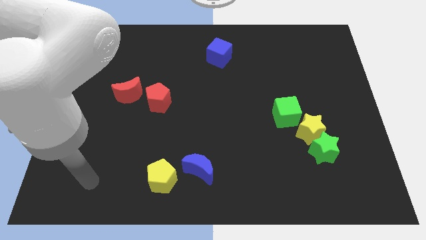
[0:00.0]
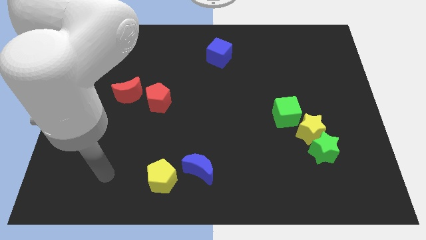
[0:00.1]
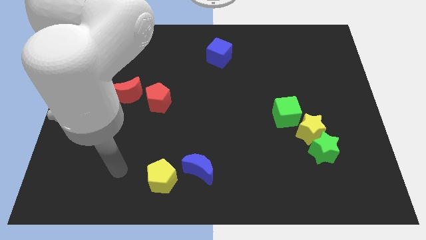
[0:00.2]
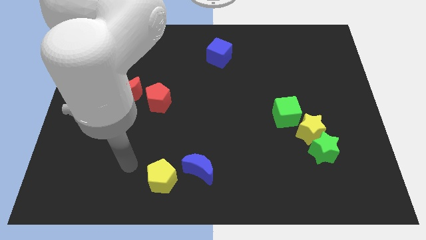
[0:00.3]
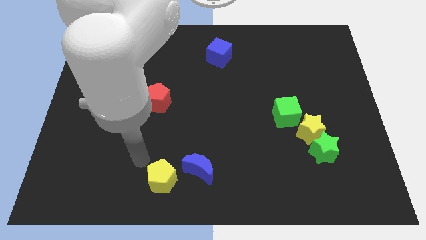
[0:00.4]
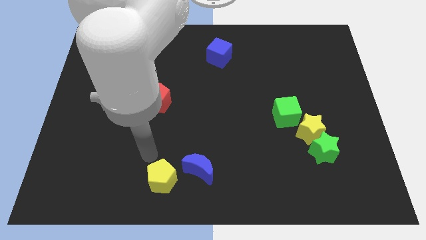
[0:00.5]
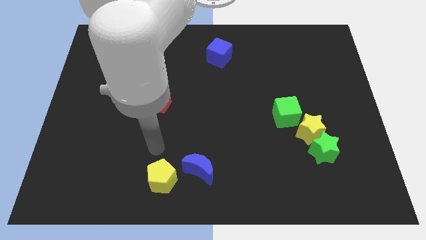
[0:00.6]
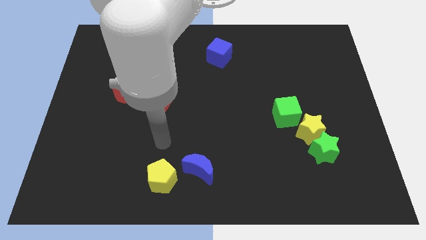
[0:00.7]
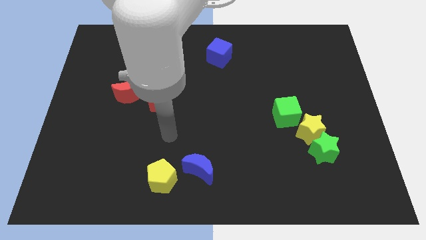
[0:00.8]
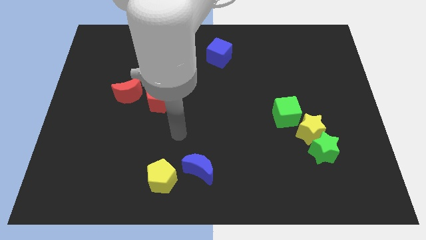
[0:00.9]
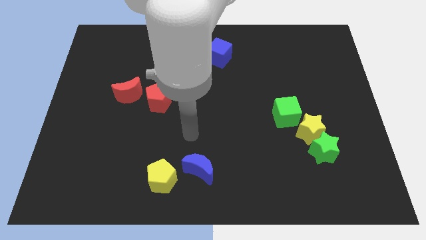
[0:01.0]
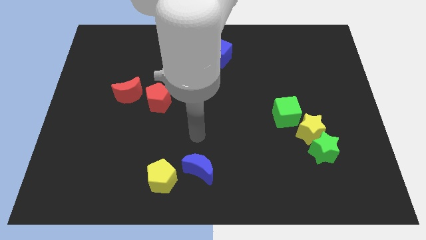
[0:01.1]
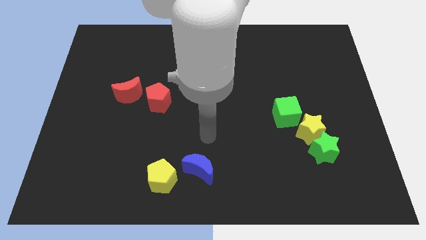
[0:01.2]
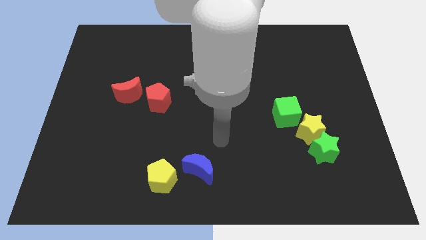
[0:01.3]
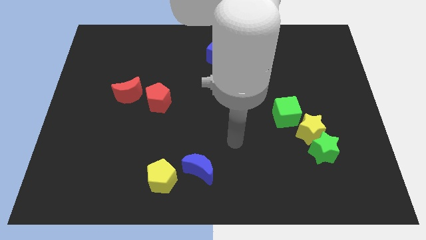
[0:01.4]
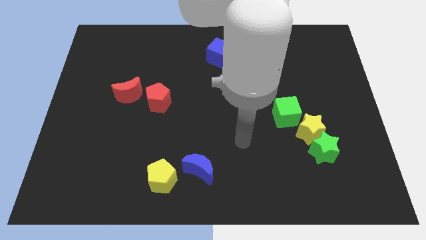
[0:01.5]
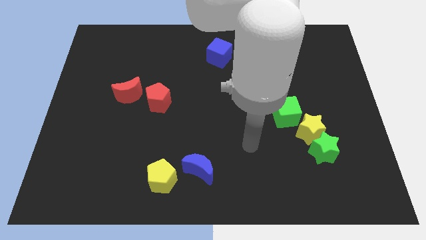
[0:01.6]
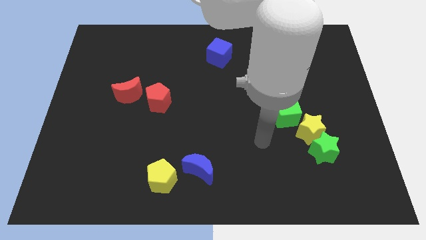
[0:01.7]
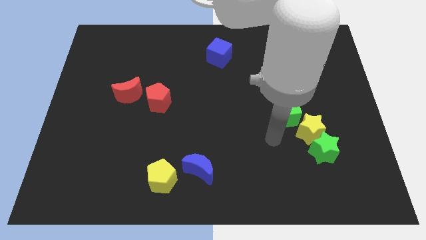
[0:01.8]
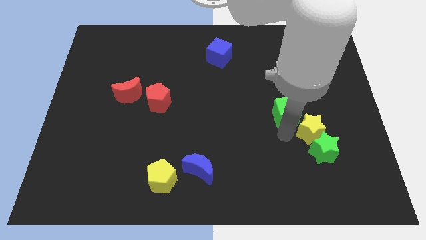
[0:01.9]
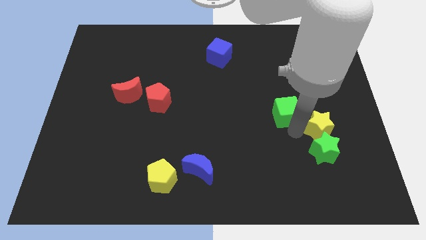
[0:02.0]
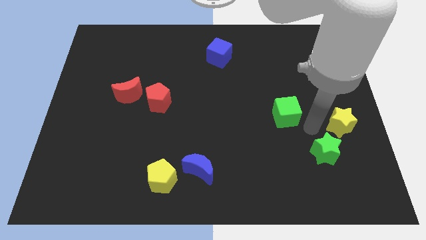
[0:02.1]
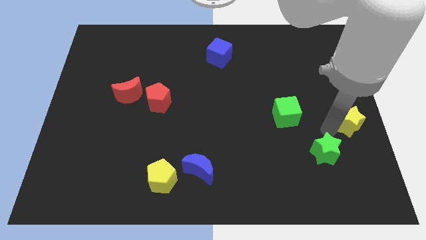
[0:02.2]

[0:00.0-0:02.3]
separate the green star from the yellow star

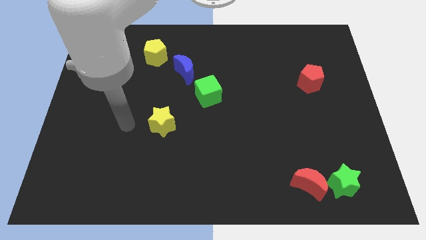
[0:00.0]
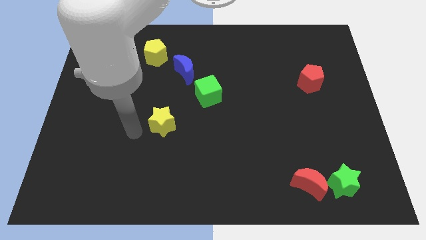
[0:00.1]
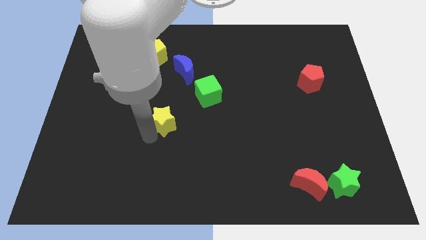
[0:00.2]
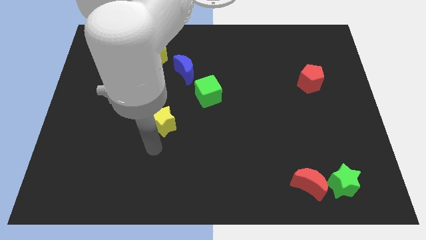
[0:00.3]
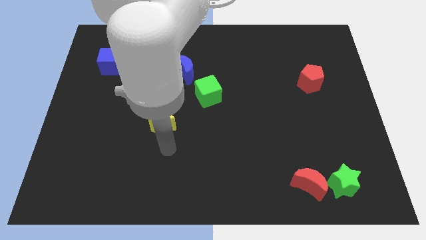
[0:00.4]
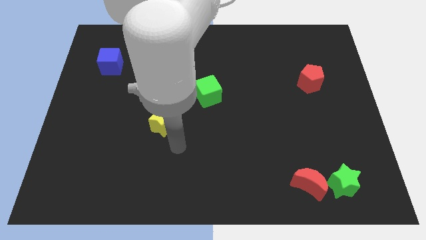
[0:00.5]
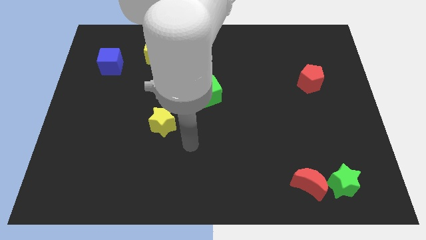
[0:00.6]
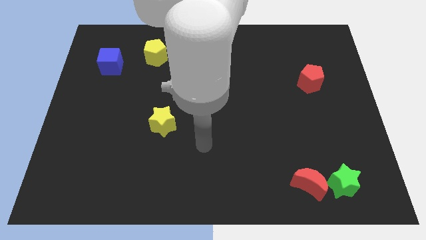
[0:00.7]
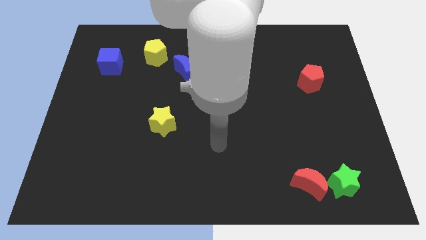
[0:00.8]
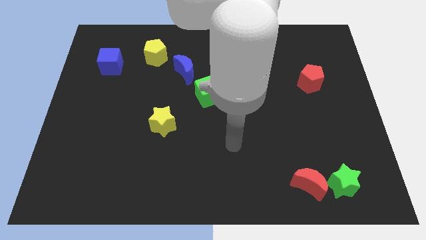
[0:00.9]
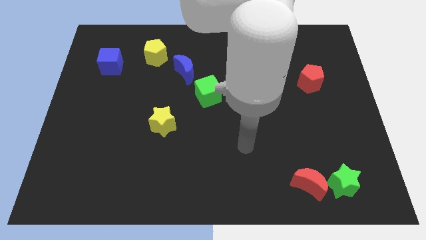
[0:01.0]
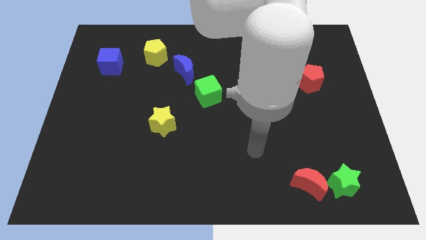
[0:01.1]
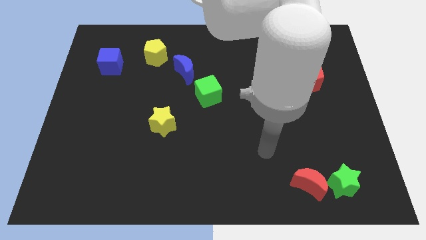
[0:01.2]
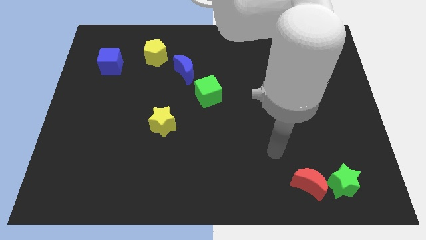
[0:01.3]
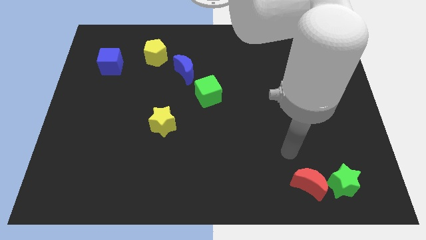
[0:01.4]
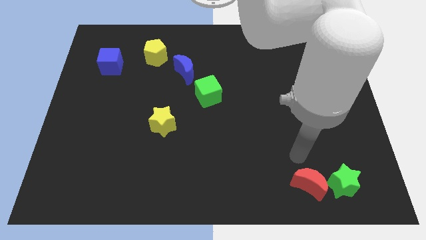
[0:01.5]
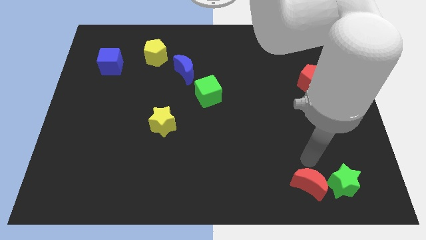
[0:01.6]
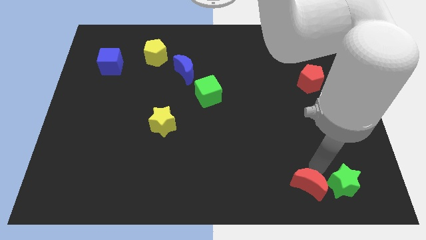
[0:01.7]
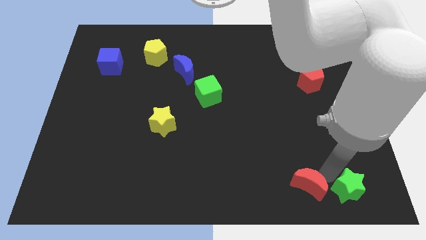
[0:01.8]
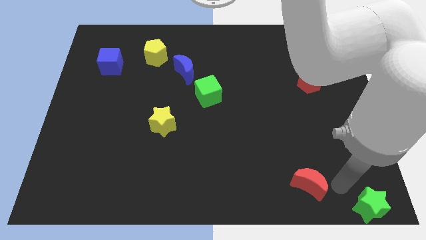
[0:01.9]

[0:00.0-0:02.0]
separate the red moon from the green star

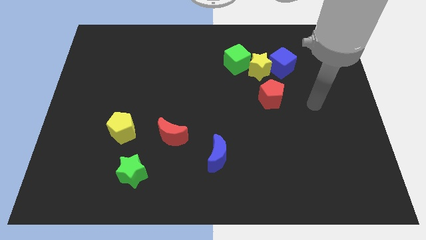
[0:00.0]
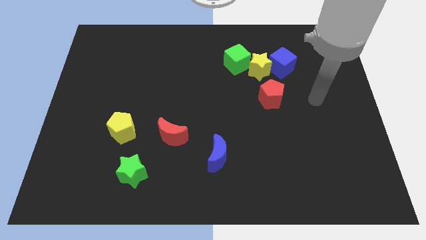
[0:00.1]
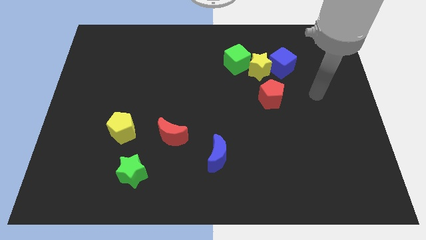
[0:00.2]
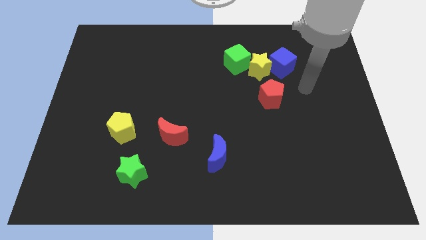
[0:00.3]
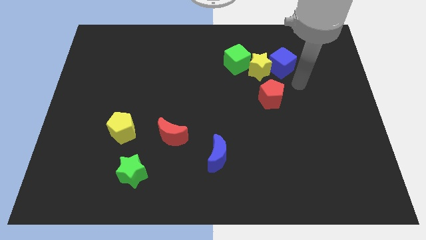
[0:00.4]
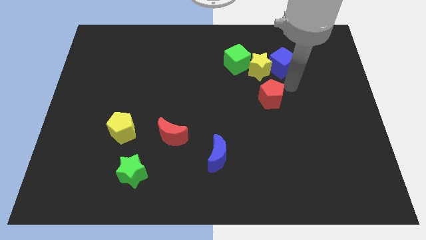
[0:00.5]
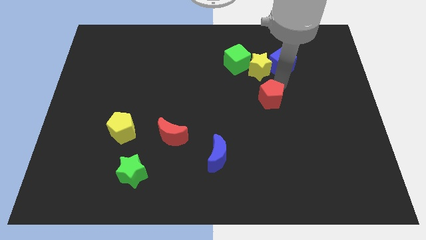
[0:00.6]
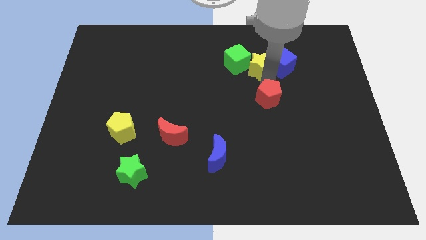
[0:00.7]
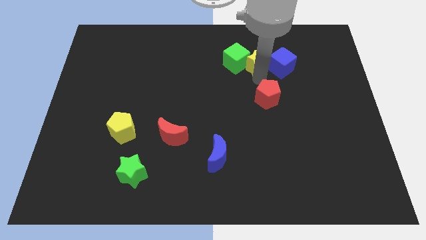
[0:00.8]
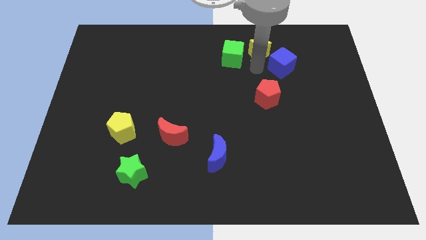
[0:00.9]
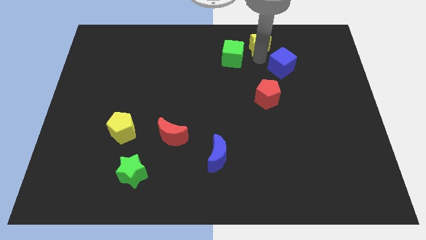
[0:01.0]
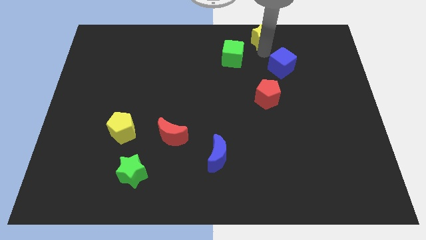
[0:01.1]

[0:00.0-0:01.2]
move the blue cube away from the yellow star

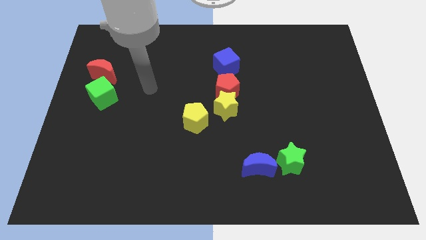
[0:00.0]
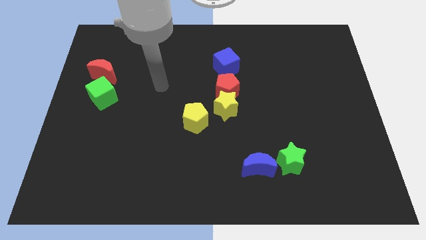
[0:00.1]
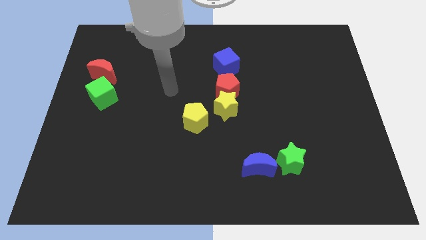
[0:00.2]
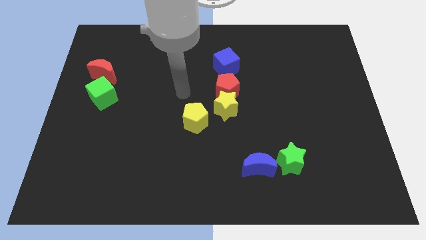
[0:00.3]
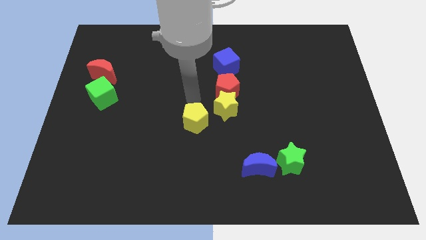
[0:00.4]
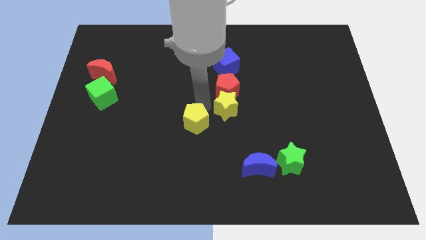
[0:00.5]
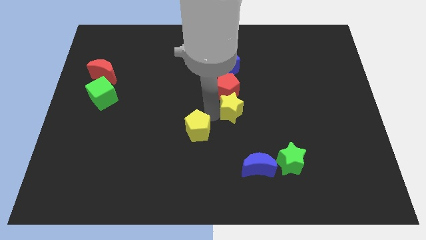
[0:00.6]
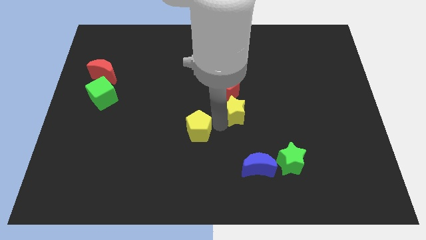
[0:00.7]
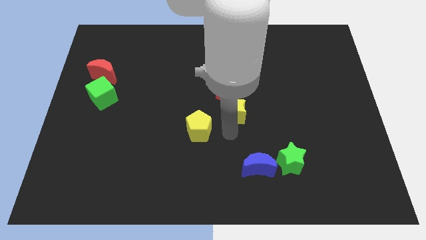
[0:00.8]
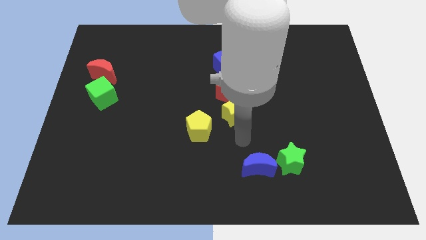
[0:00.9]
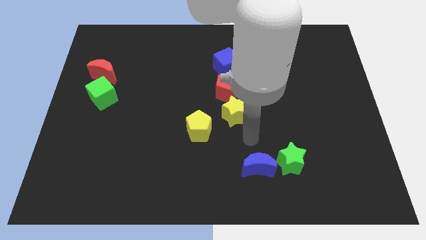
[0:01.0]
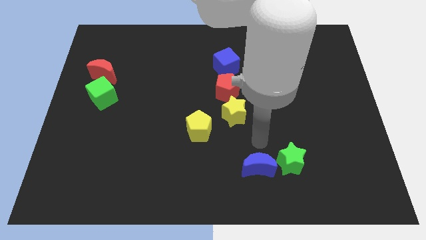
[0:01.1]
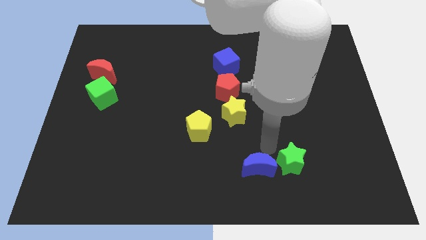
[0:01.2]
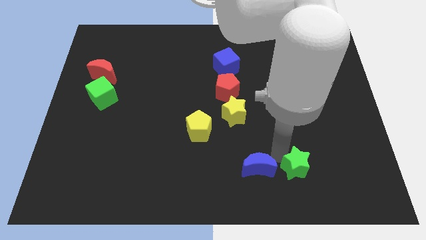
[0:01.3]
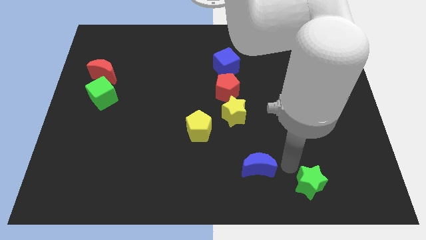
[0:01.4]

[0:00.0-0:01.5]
pull the blue moon apart from the green star

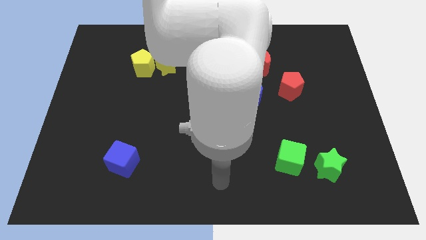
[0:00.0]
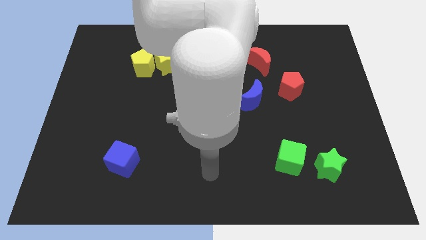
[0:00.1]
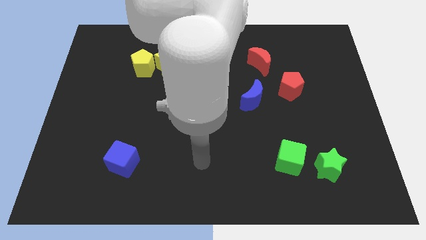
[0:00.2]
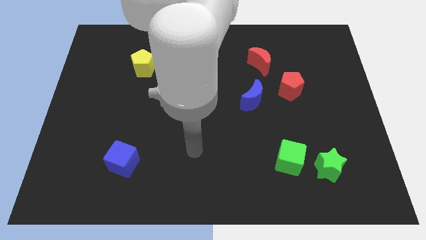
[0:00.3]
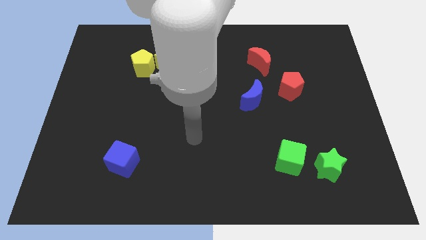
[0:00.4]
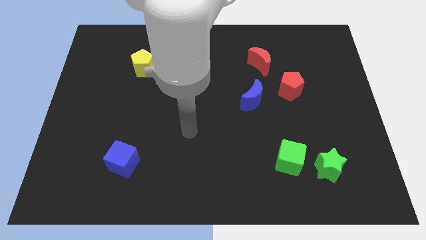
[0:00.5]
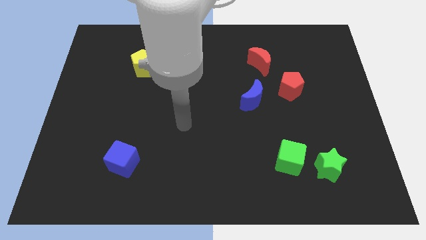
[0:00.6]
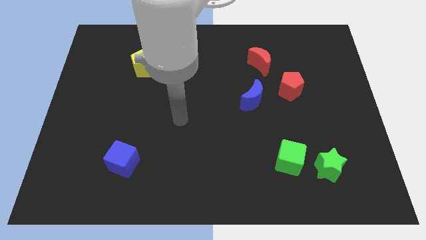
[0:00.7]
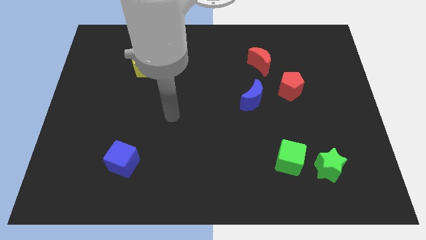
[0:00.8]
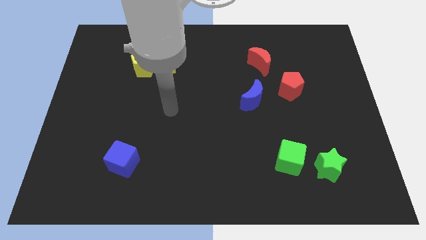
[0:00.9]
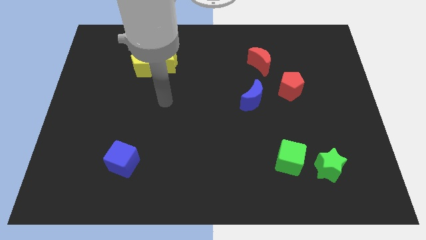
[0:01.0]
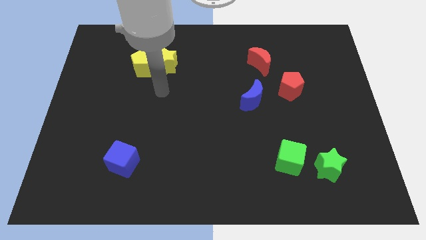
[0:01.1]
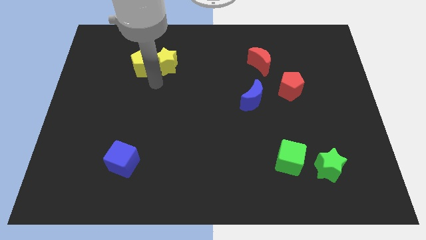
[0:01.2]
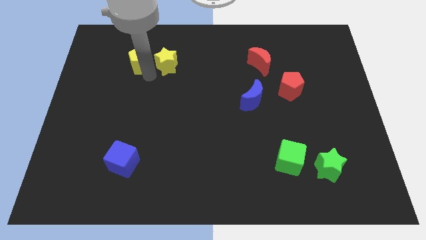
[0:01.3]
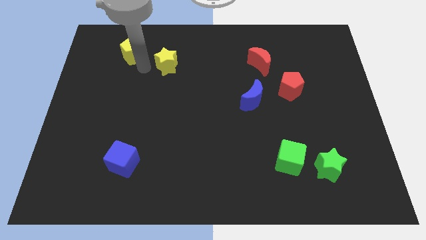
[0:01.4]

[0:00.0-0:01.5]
pull the yellow star apart from the yellow pentagon

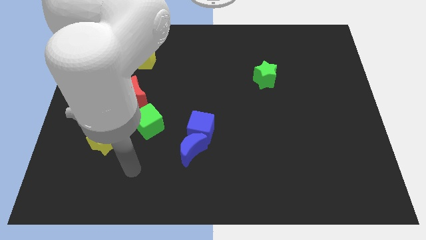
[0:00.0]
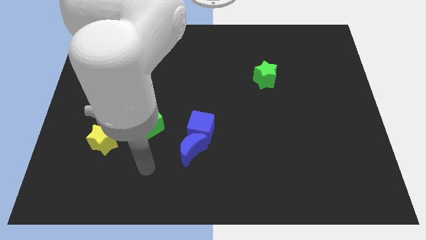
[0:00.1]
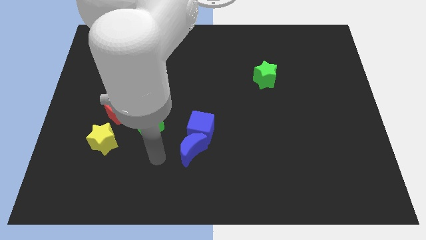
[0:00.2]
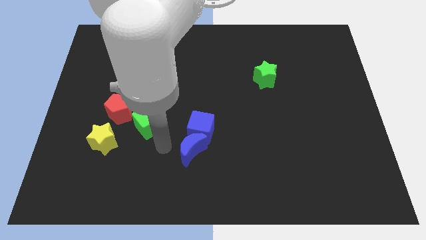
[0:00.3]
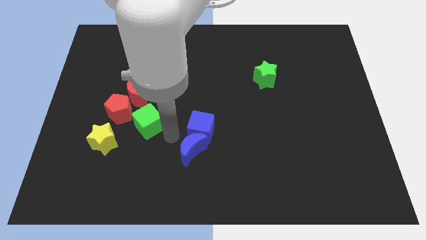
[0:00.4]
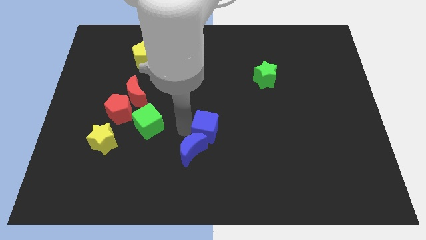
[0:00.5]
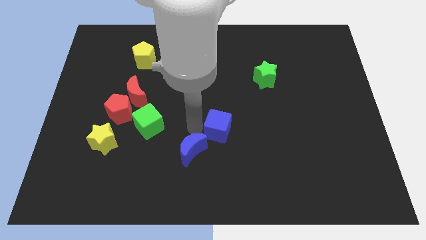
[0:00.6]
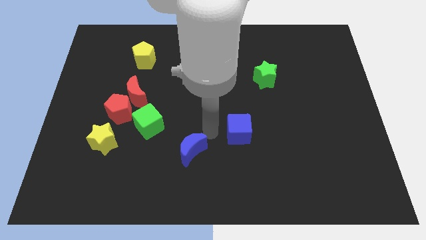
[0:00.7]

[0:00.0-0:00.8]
move the blue moon away from the blue cube
